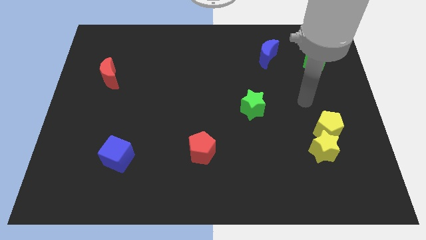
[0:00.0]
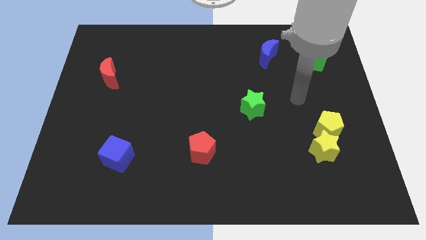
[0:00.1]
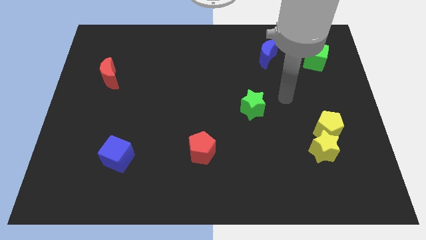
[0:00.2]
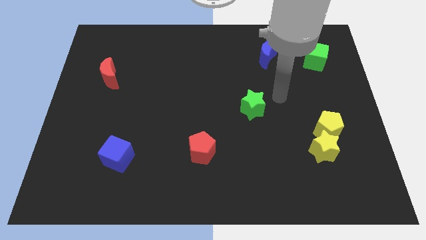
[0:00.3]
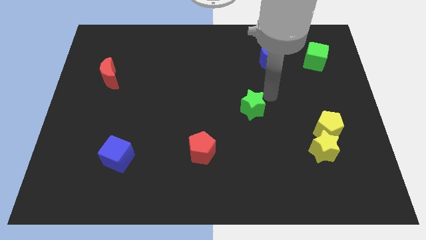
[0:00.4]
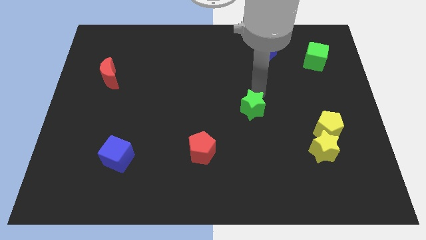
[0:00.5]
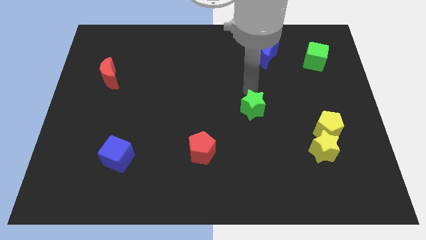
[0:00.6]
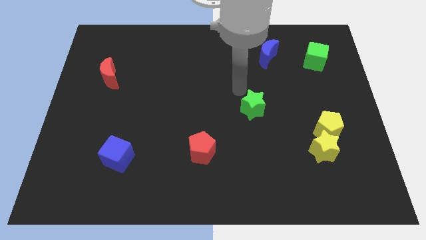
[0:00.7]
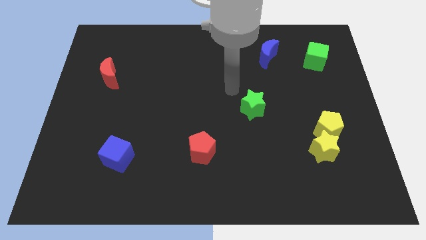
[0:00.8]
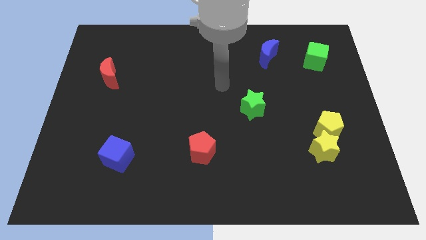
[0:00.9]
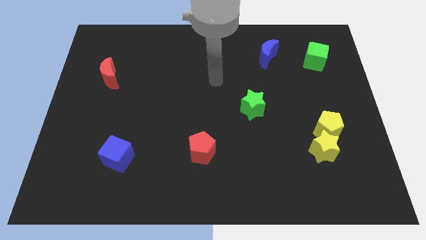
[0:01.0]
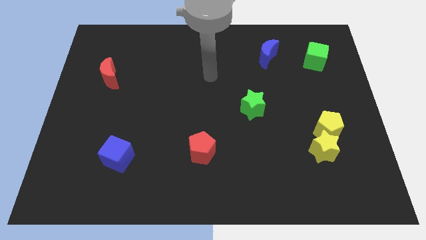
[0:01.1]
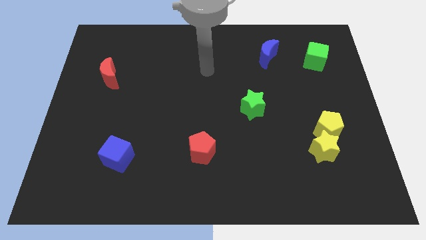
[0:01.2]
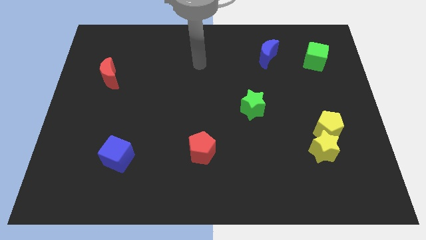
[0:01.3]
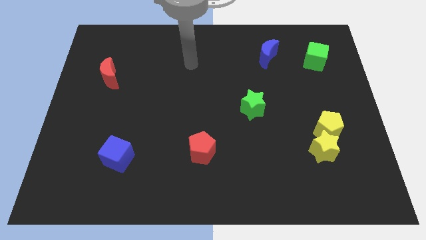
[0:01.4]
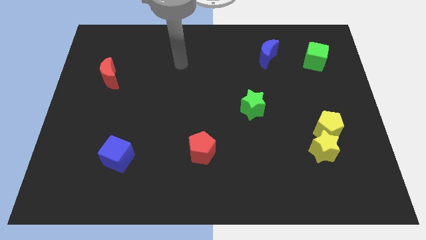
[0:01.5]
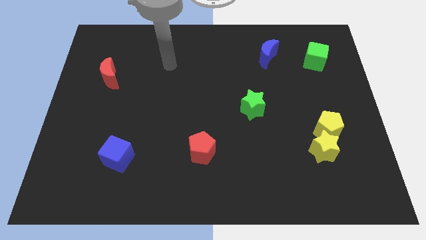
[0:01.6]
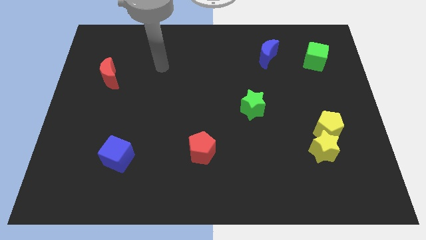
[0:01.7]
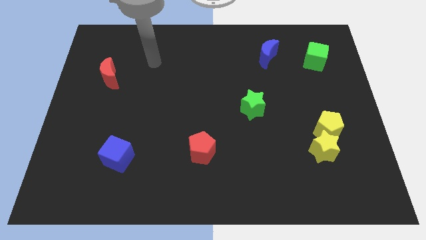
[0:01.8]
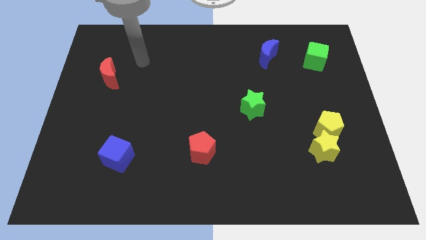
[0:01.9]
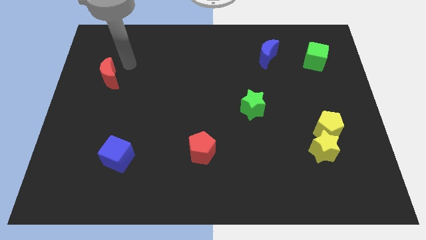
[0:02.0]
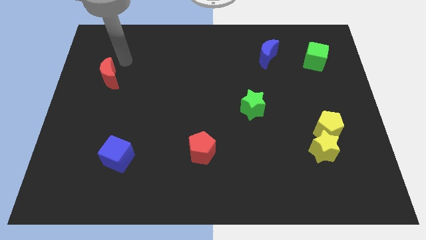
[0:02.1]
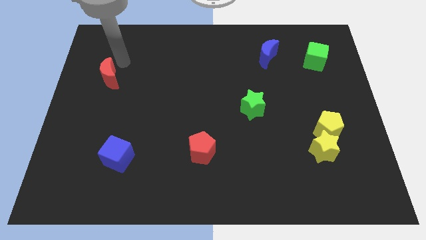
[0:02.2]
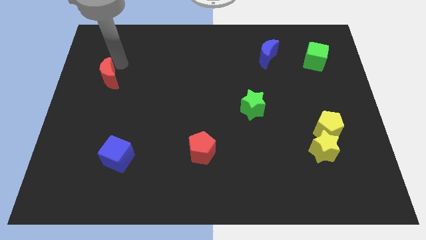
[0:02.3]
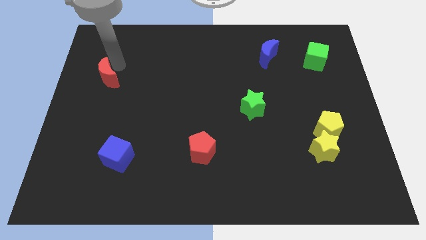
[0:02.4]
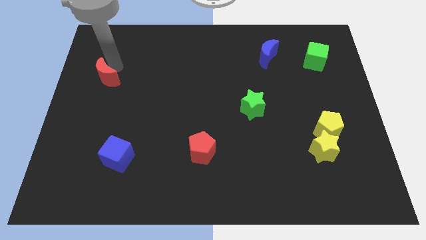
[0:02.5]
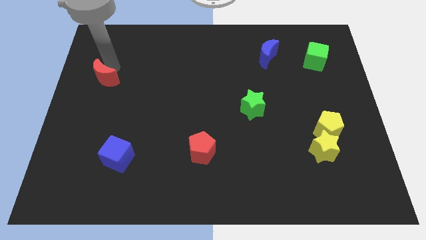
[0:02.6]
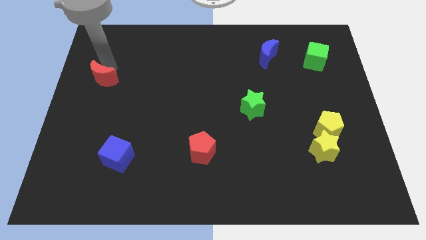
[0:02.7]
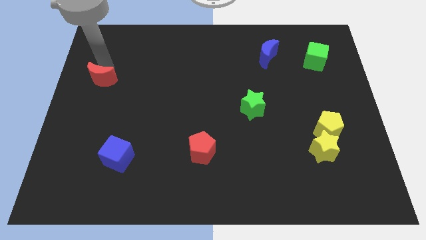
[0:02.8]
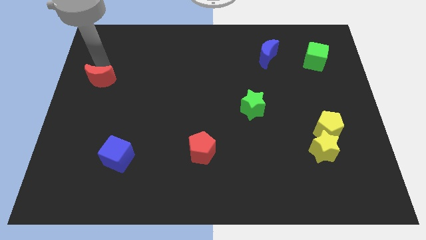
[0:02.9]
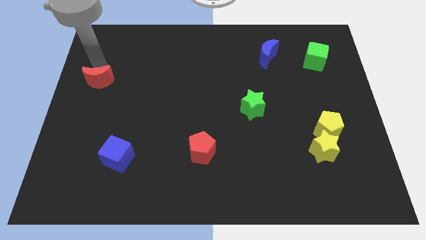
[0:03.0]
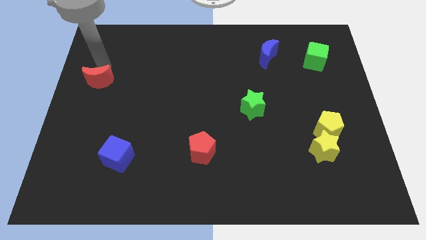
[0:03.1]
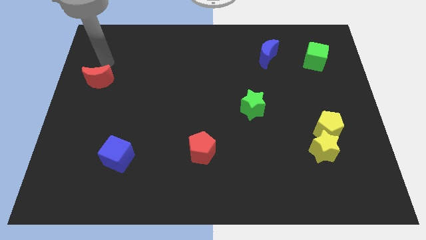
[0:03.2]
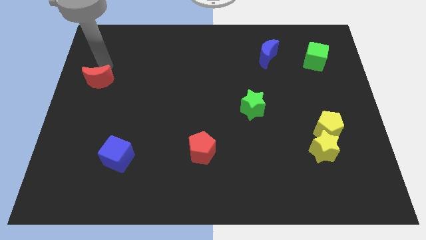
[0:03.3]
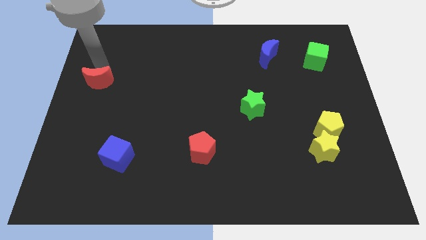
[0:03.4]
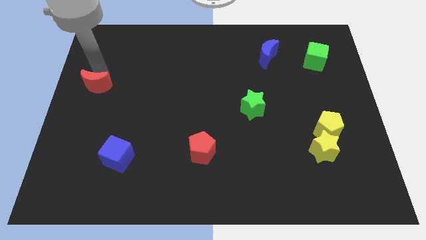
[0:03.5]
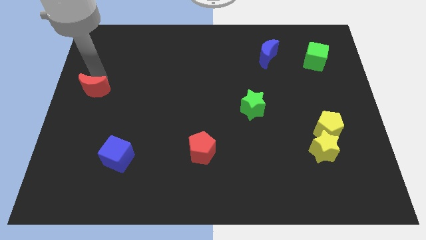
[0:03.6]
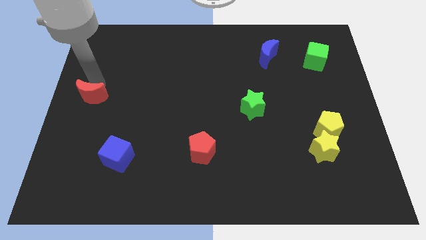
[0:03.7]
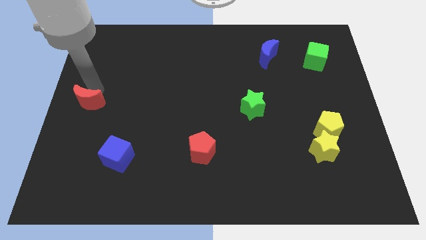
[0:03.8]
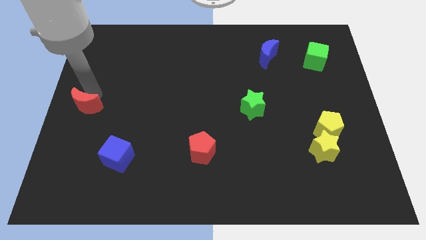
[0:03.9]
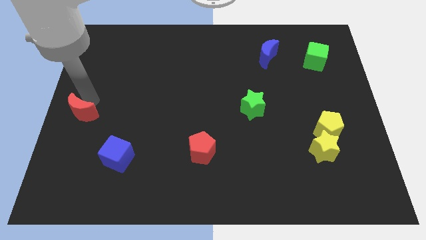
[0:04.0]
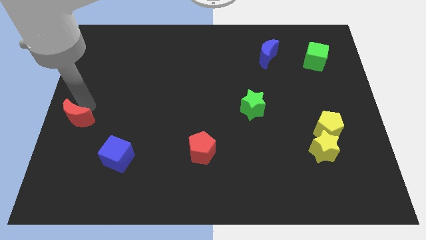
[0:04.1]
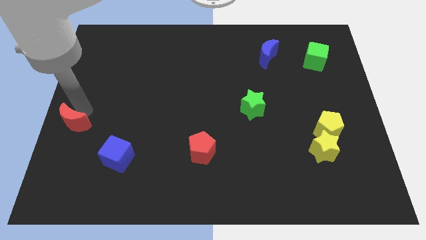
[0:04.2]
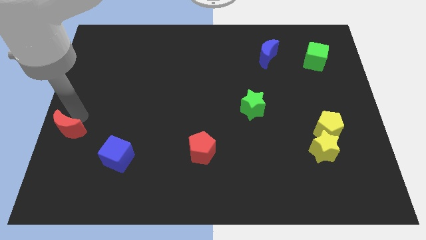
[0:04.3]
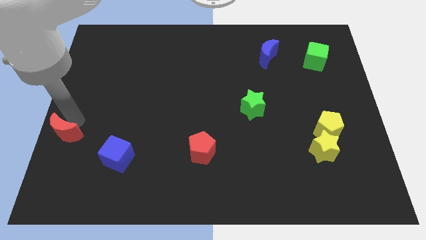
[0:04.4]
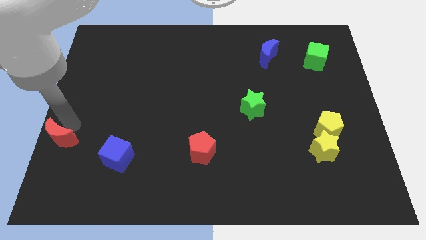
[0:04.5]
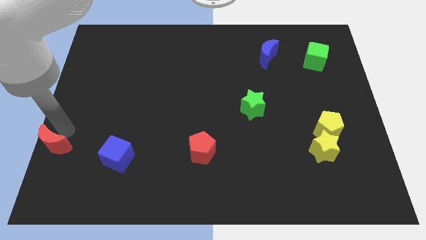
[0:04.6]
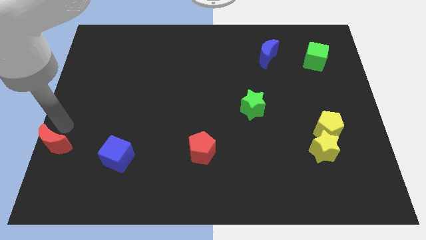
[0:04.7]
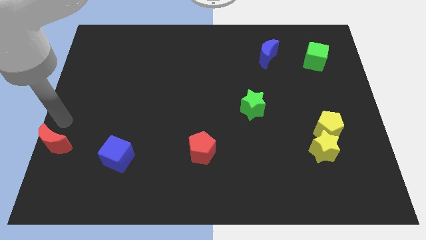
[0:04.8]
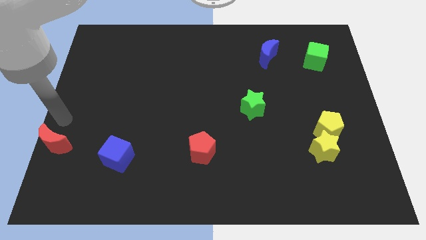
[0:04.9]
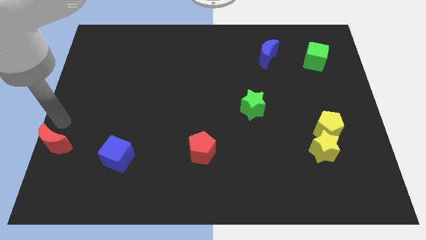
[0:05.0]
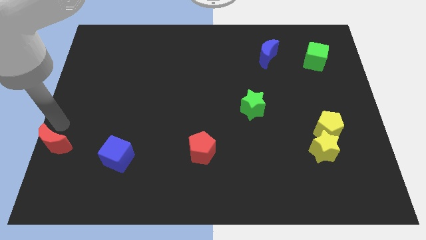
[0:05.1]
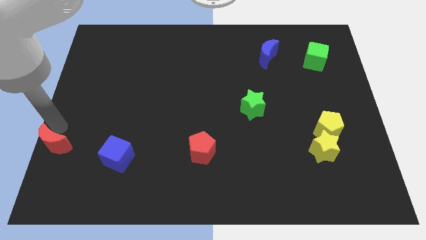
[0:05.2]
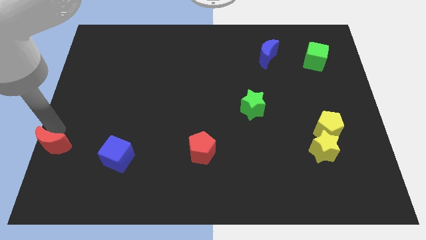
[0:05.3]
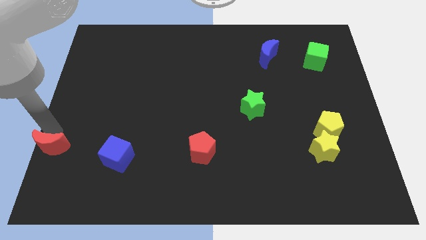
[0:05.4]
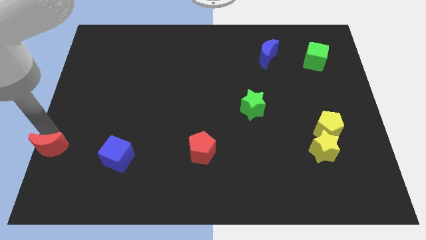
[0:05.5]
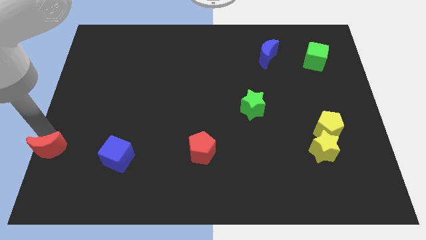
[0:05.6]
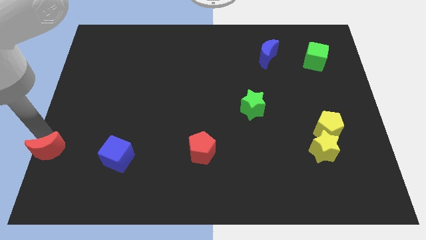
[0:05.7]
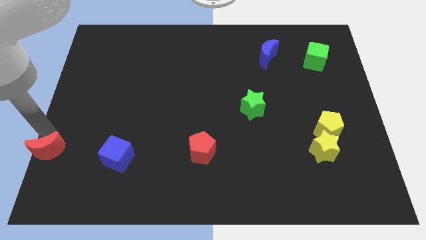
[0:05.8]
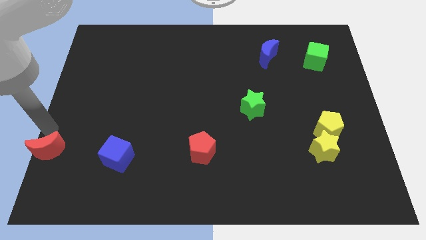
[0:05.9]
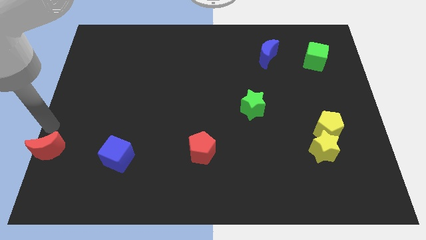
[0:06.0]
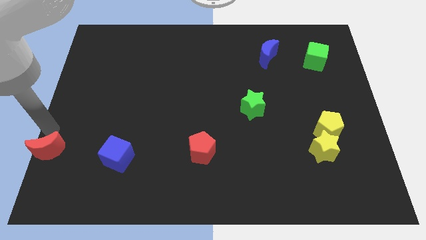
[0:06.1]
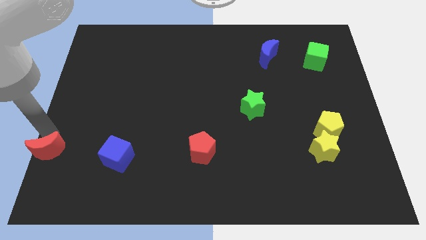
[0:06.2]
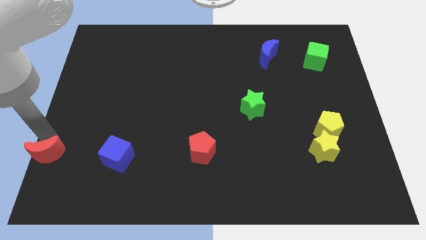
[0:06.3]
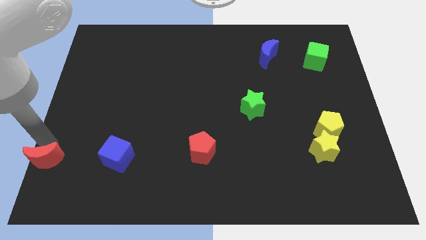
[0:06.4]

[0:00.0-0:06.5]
put the red moon to the bottom left of the board
